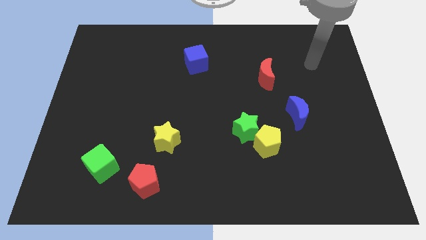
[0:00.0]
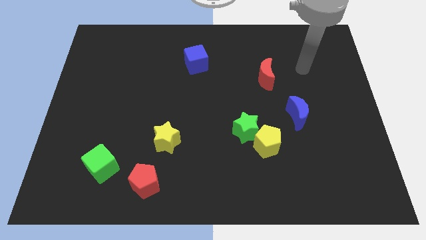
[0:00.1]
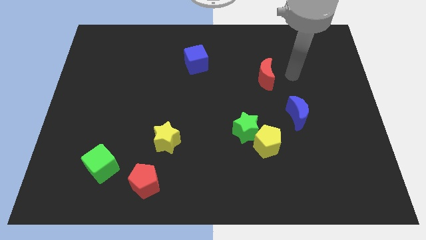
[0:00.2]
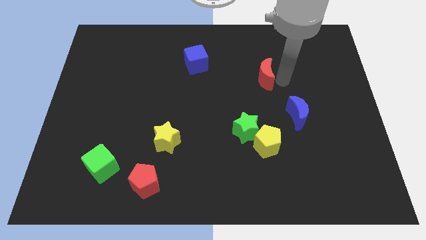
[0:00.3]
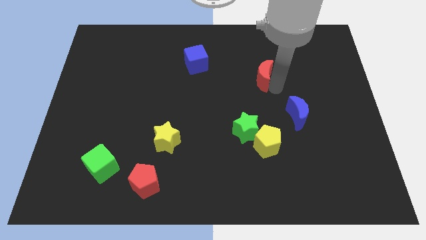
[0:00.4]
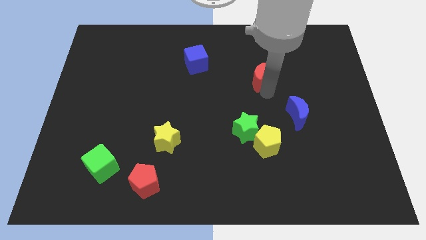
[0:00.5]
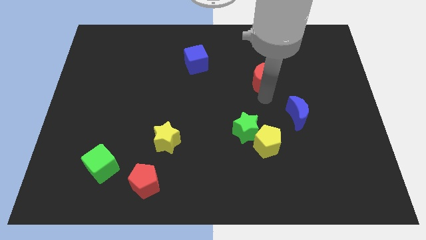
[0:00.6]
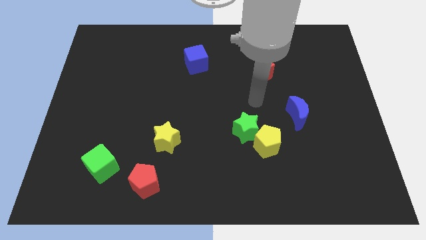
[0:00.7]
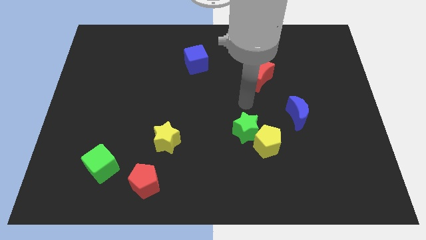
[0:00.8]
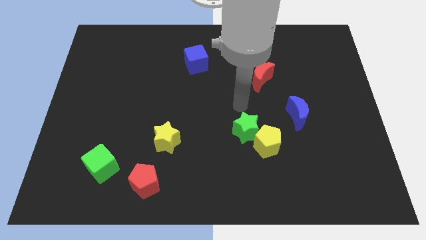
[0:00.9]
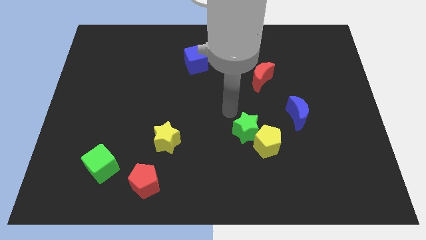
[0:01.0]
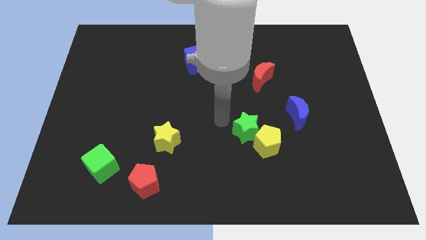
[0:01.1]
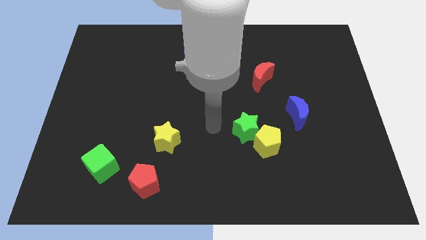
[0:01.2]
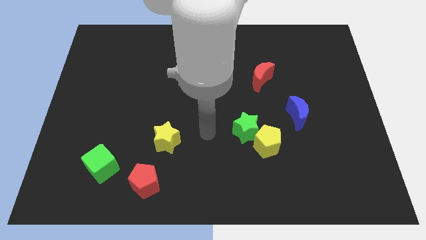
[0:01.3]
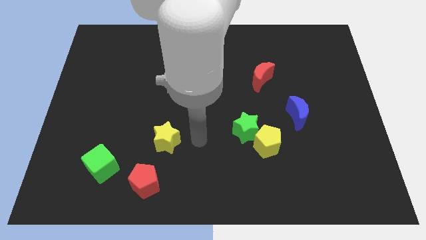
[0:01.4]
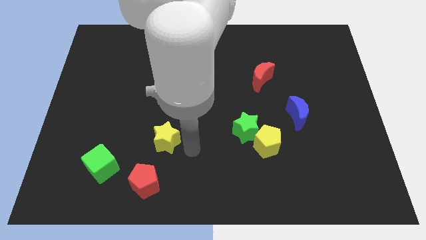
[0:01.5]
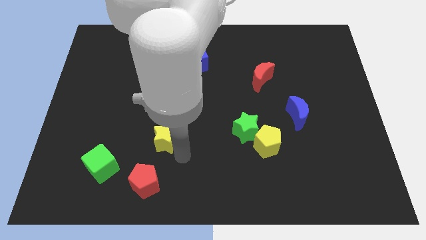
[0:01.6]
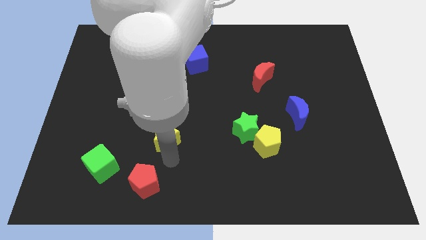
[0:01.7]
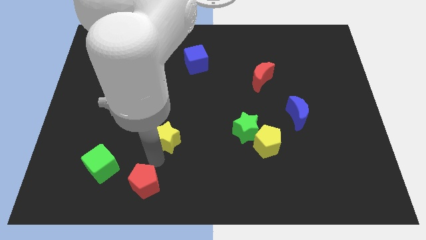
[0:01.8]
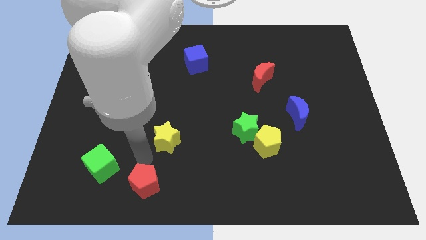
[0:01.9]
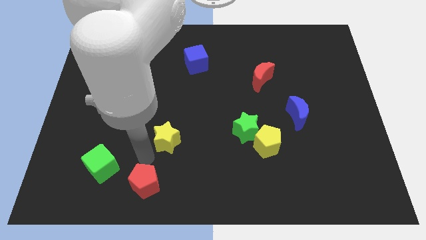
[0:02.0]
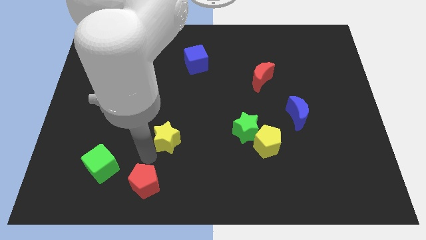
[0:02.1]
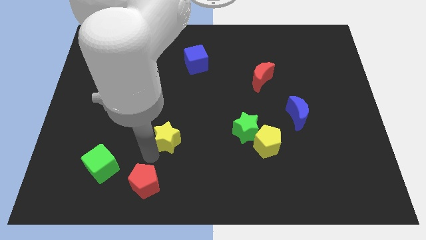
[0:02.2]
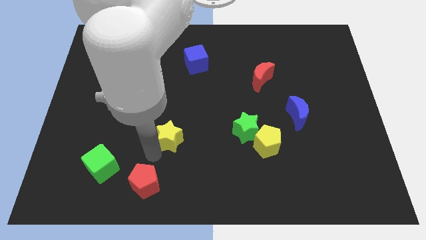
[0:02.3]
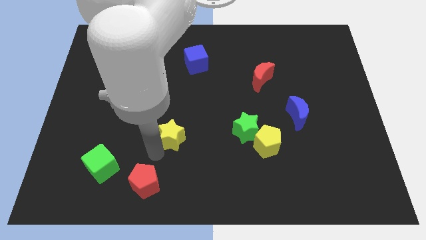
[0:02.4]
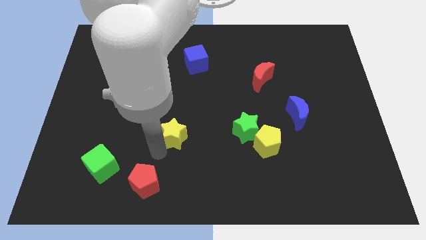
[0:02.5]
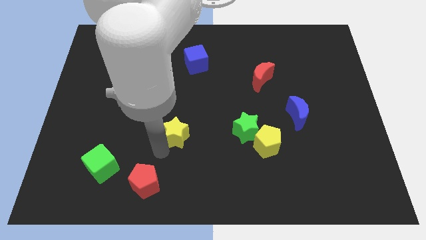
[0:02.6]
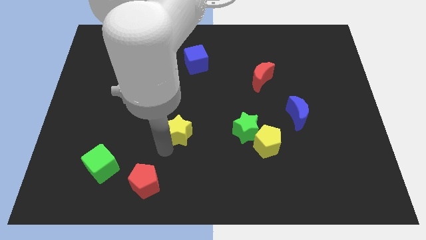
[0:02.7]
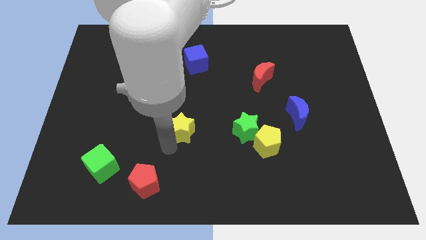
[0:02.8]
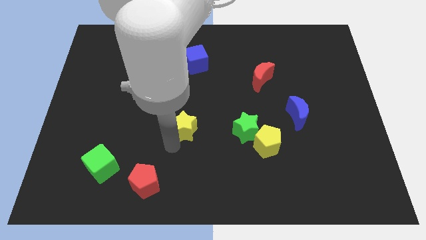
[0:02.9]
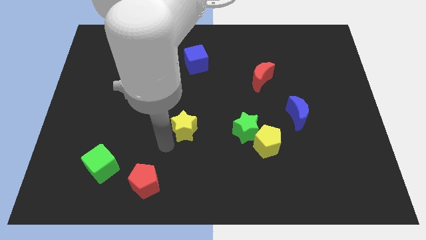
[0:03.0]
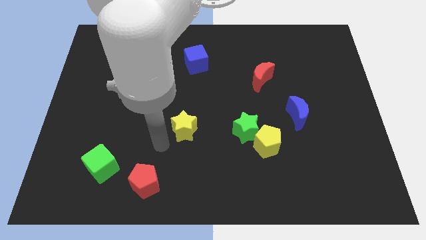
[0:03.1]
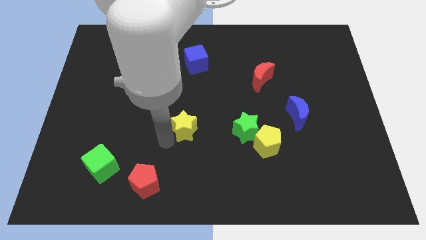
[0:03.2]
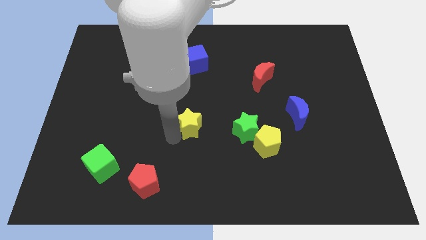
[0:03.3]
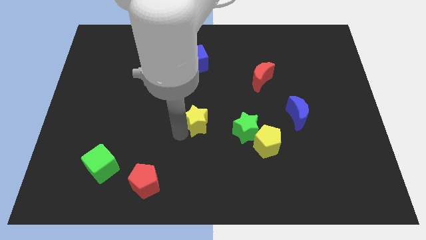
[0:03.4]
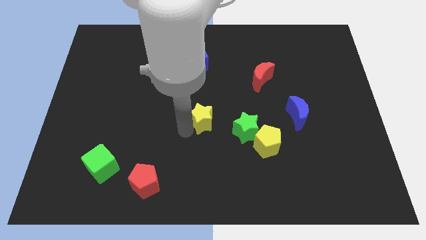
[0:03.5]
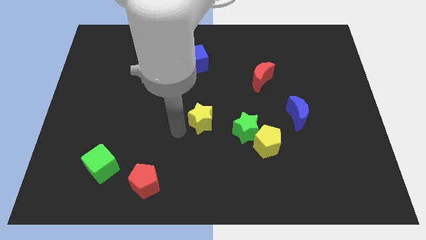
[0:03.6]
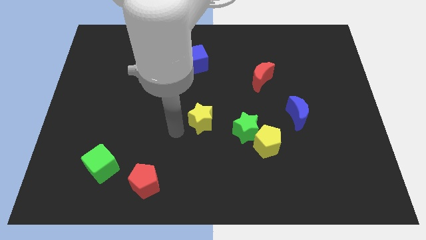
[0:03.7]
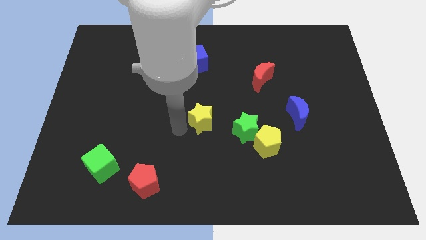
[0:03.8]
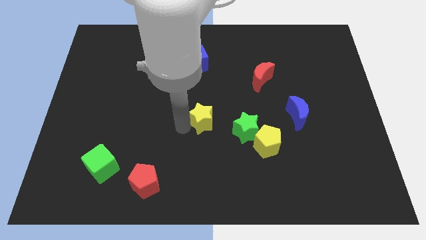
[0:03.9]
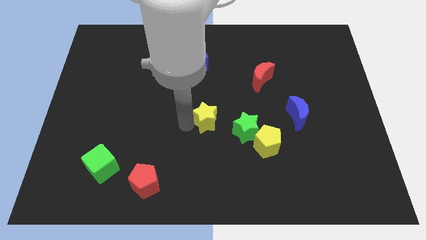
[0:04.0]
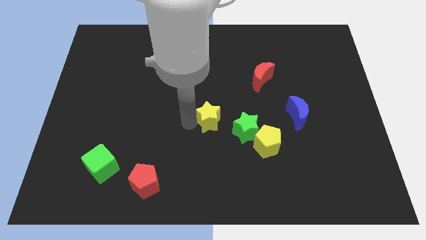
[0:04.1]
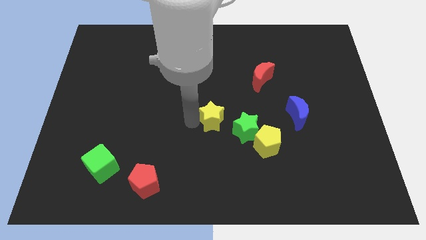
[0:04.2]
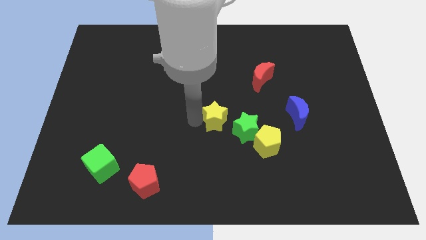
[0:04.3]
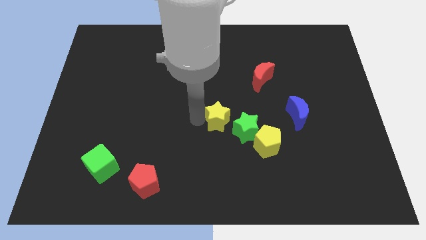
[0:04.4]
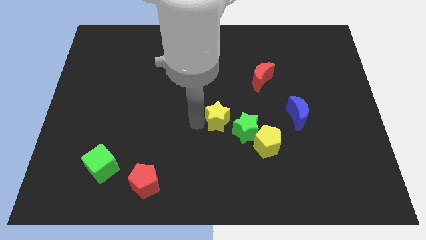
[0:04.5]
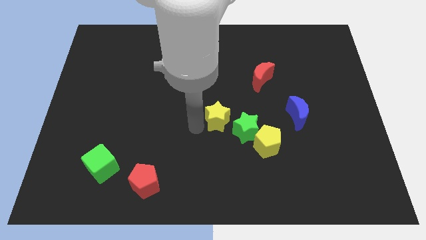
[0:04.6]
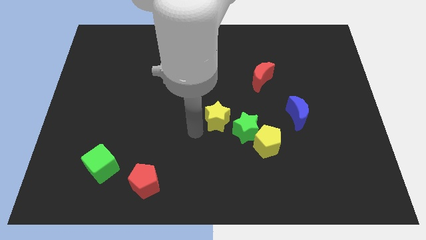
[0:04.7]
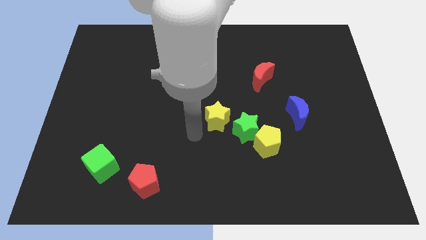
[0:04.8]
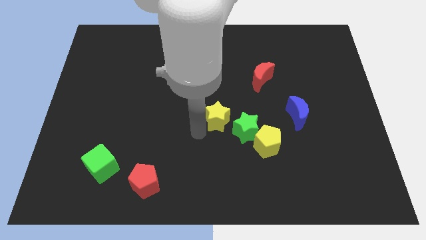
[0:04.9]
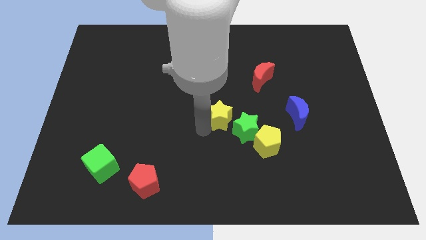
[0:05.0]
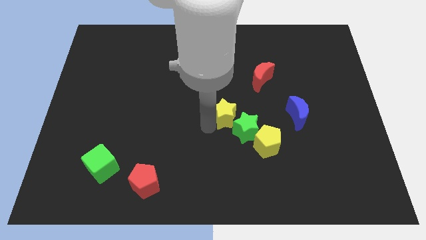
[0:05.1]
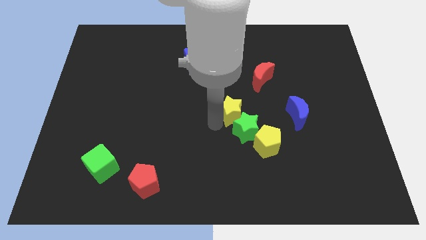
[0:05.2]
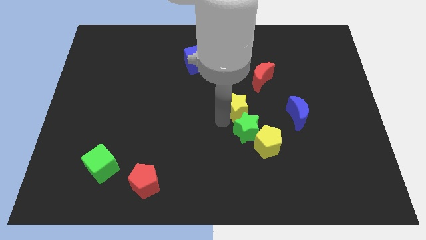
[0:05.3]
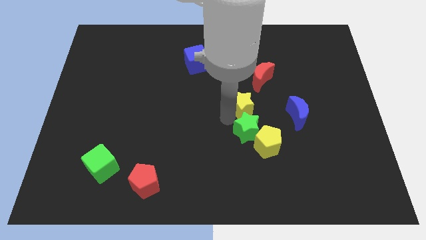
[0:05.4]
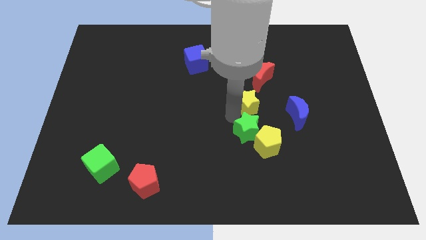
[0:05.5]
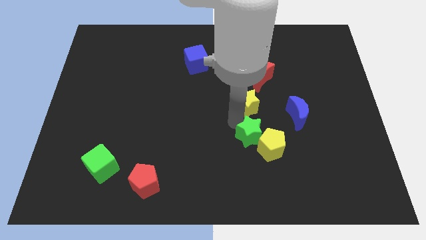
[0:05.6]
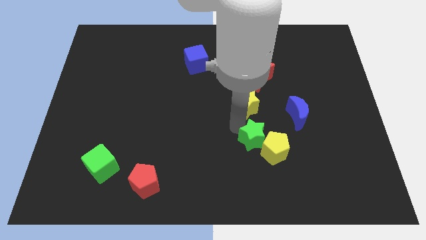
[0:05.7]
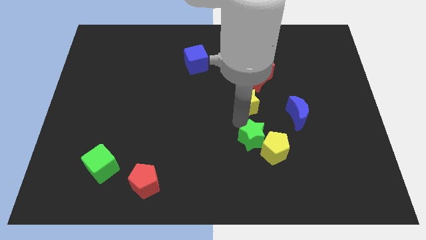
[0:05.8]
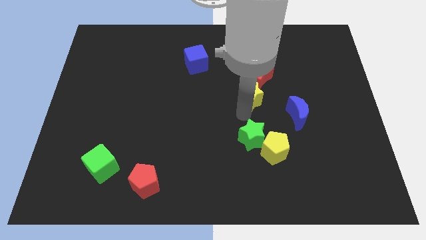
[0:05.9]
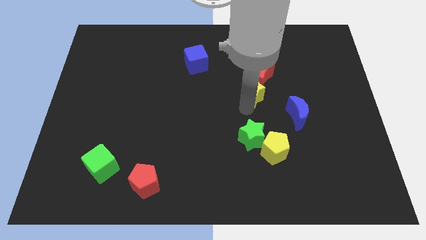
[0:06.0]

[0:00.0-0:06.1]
push the yellow star next to the red moon
